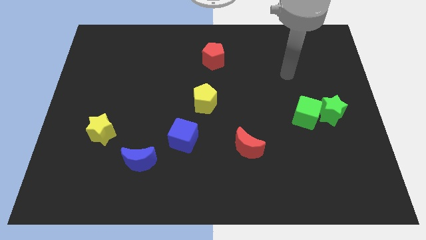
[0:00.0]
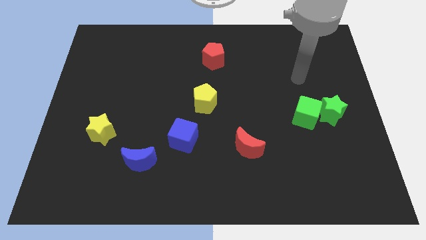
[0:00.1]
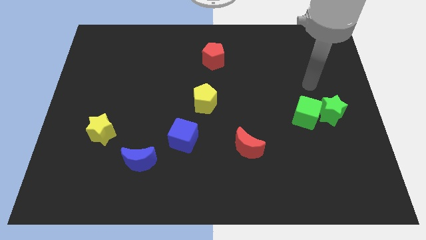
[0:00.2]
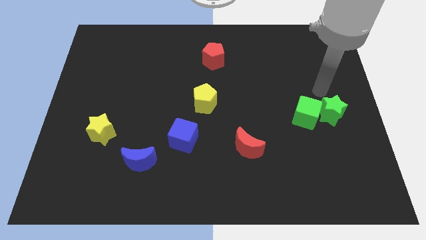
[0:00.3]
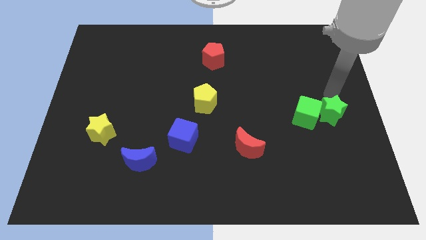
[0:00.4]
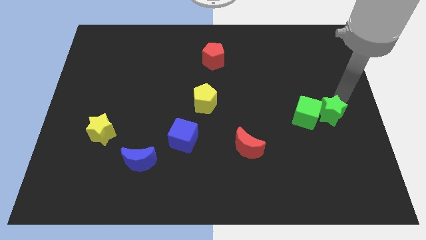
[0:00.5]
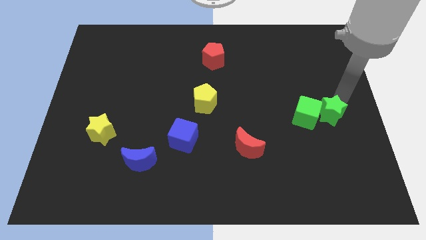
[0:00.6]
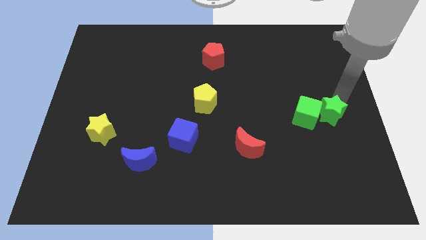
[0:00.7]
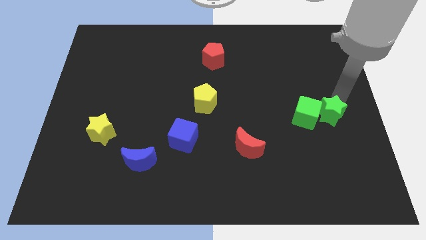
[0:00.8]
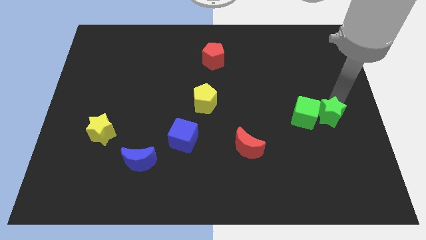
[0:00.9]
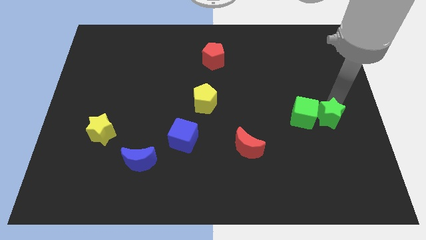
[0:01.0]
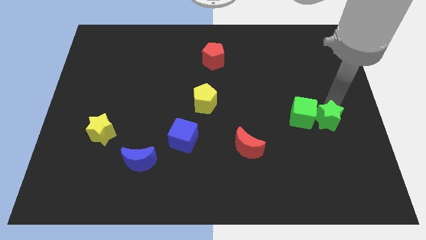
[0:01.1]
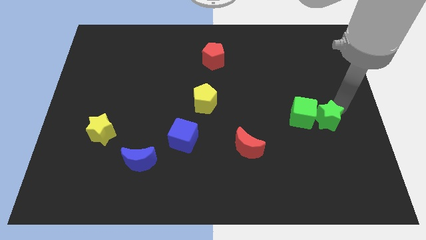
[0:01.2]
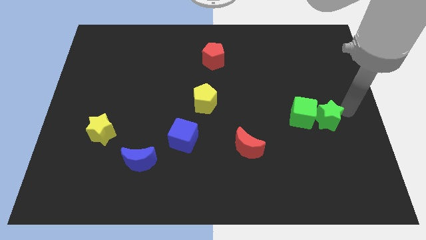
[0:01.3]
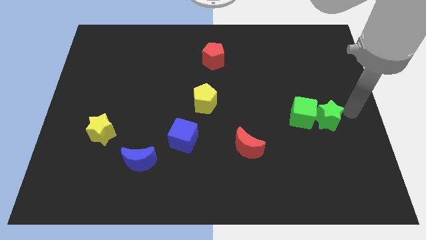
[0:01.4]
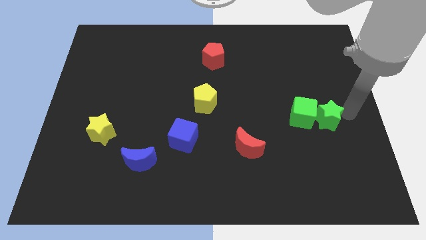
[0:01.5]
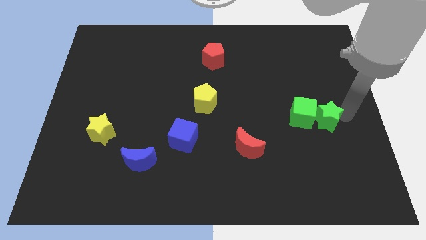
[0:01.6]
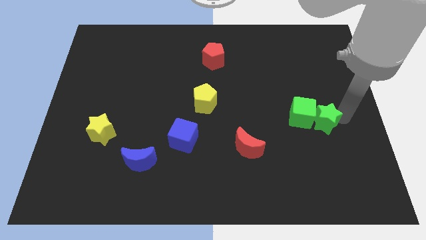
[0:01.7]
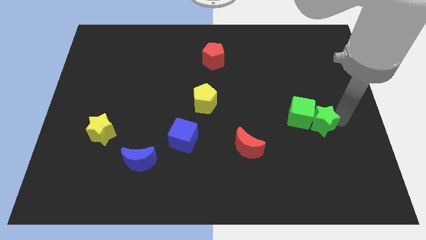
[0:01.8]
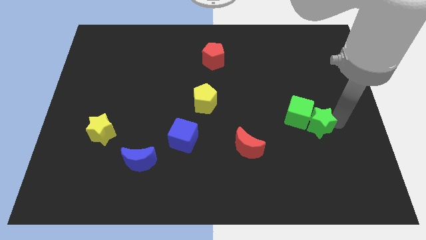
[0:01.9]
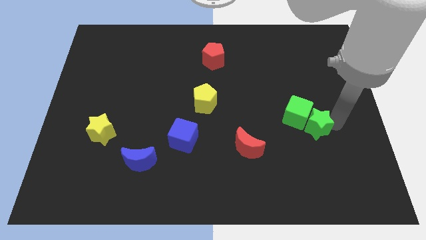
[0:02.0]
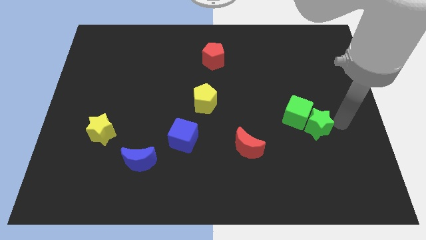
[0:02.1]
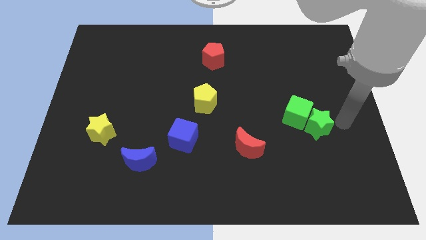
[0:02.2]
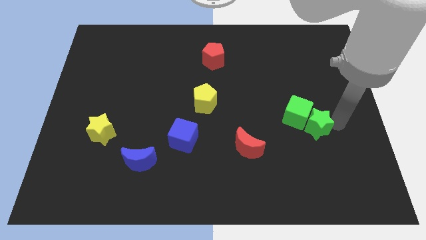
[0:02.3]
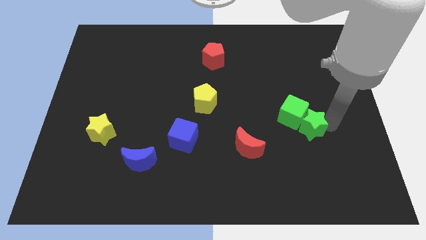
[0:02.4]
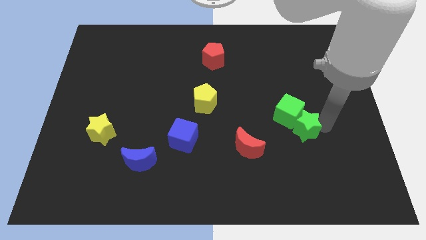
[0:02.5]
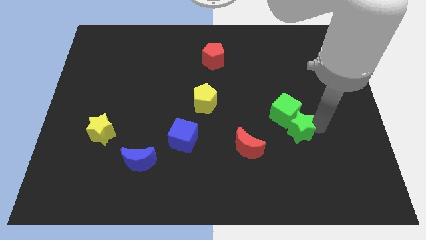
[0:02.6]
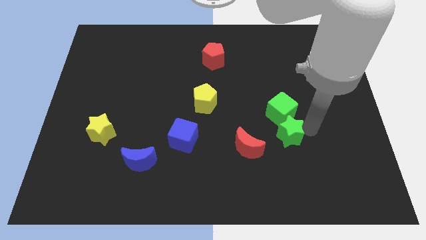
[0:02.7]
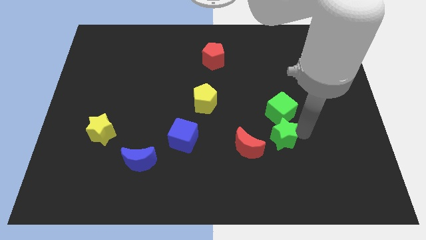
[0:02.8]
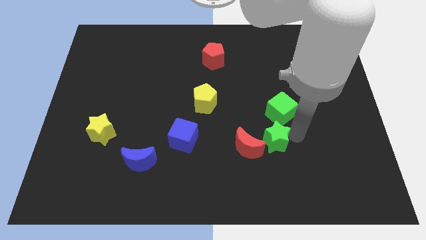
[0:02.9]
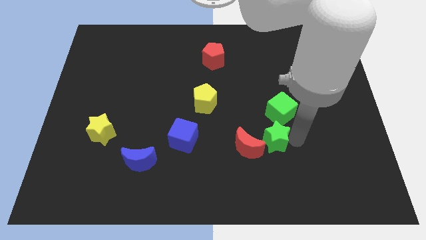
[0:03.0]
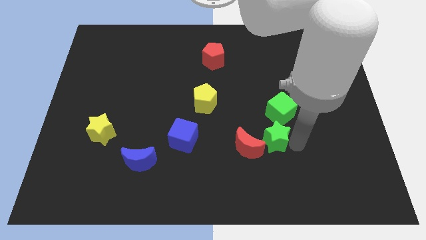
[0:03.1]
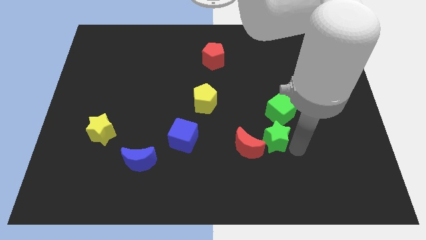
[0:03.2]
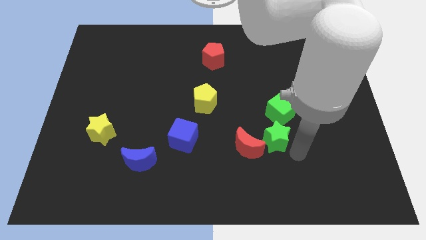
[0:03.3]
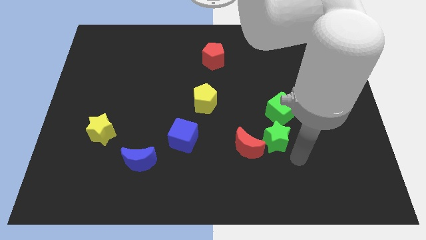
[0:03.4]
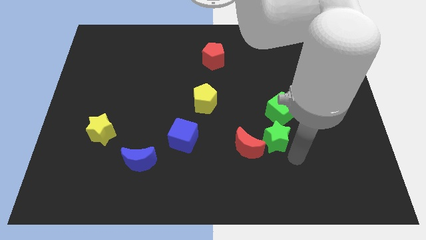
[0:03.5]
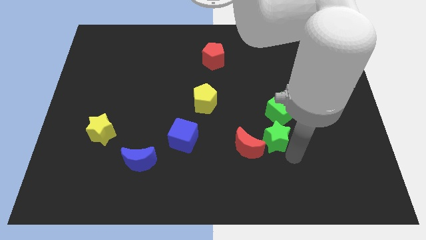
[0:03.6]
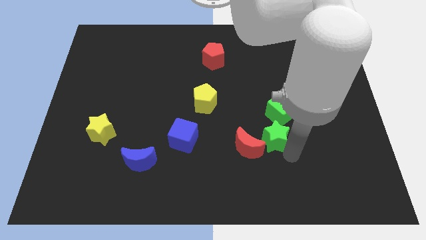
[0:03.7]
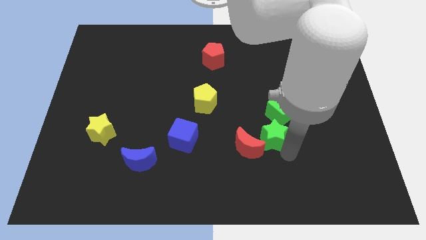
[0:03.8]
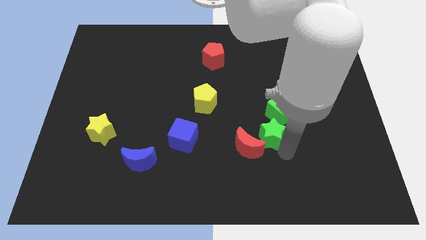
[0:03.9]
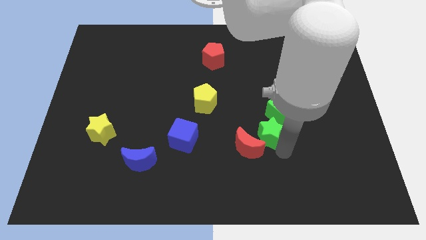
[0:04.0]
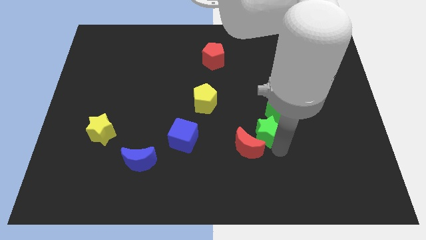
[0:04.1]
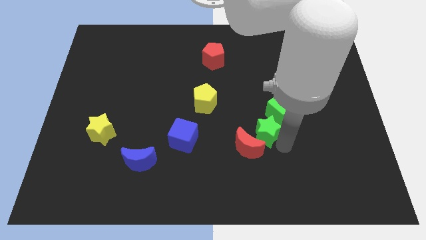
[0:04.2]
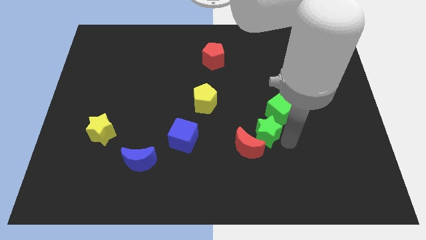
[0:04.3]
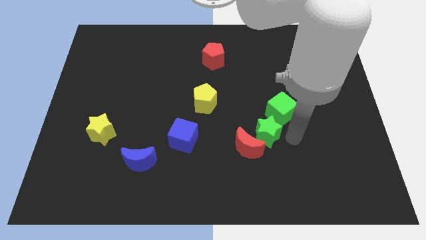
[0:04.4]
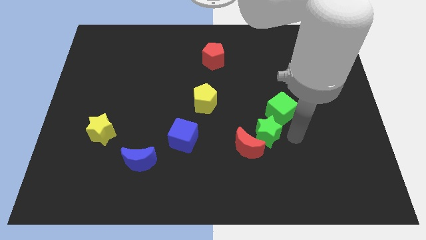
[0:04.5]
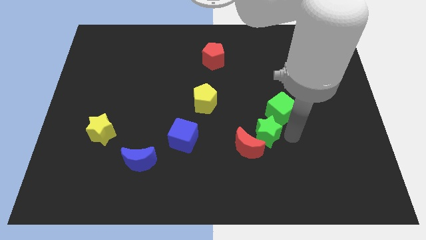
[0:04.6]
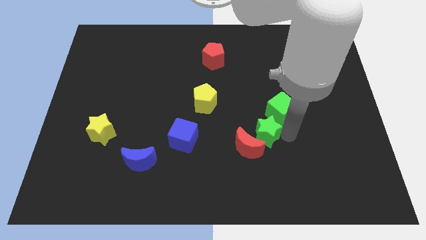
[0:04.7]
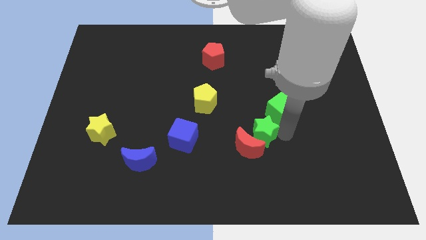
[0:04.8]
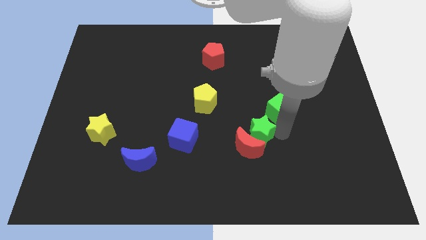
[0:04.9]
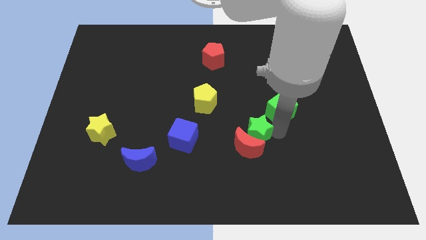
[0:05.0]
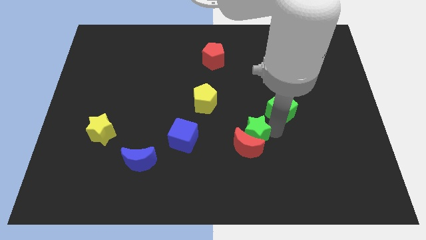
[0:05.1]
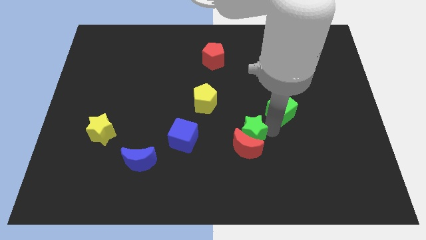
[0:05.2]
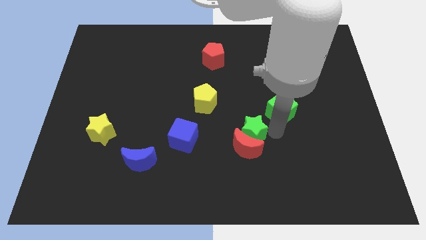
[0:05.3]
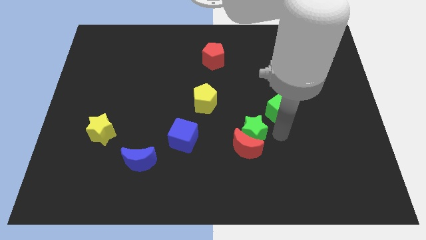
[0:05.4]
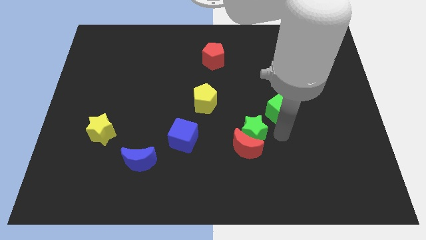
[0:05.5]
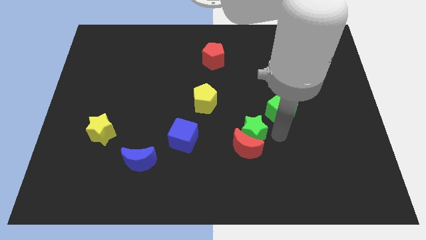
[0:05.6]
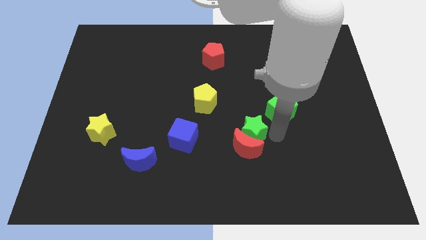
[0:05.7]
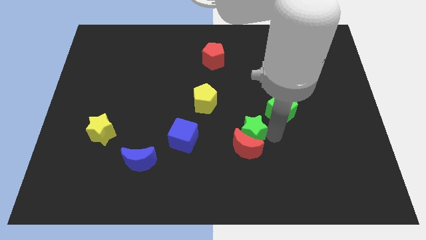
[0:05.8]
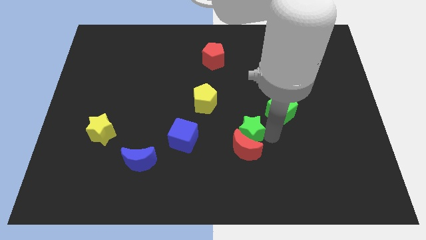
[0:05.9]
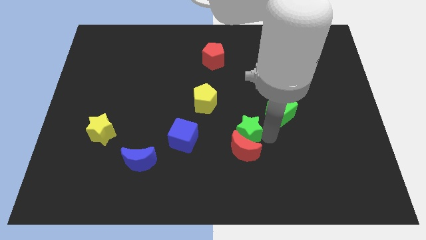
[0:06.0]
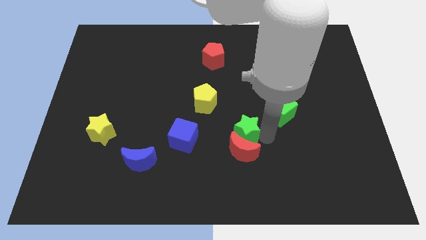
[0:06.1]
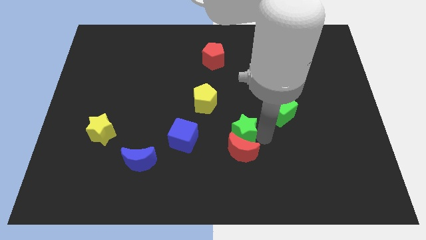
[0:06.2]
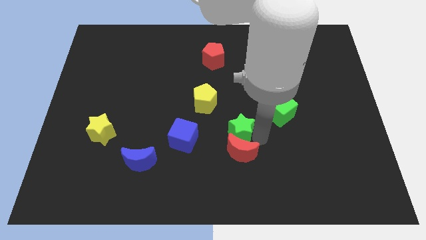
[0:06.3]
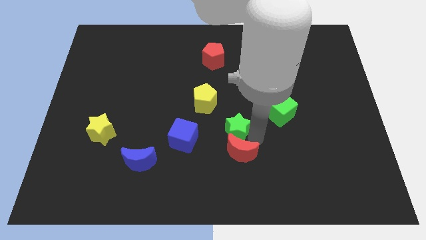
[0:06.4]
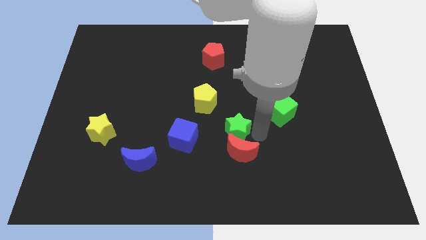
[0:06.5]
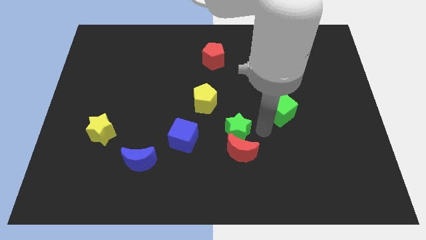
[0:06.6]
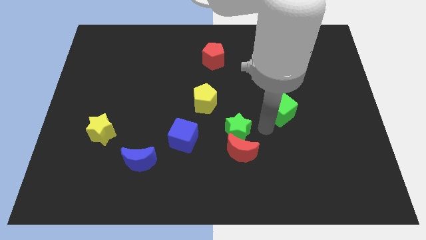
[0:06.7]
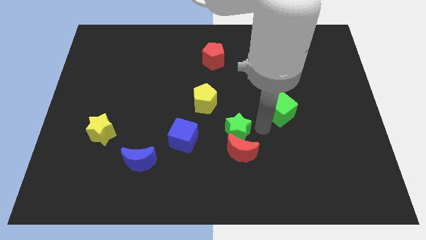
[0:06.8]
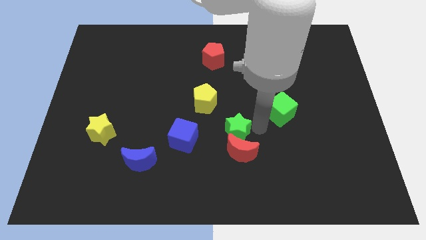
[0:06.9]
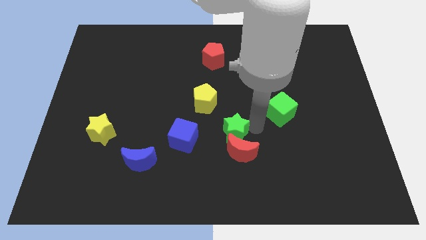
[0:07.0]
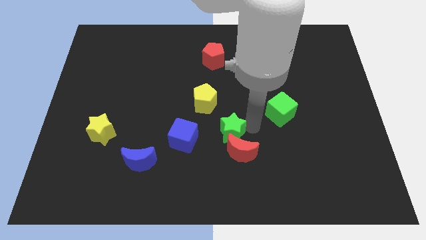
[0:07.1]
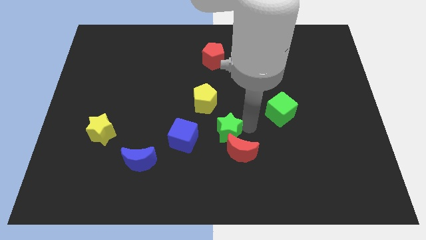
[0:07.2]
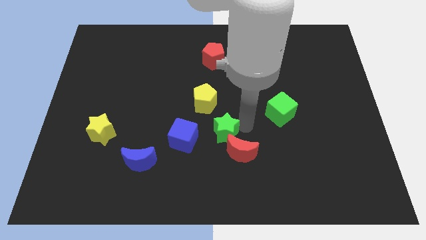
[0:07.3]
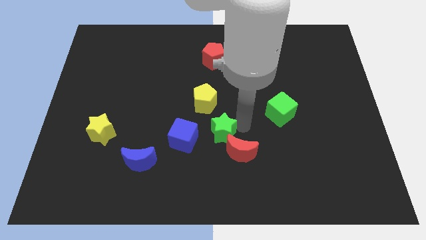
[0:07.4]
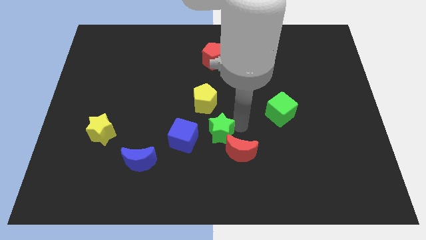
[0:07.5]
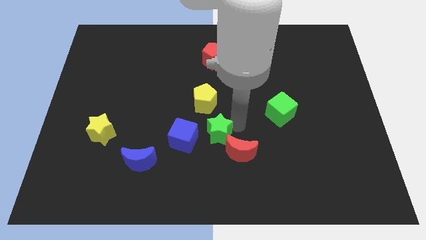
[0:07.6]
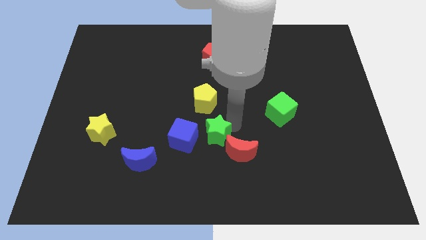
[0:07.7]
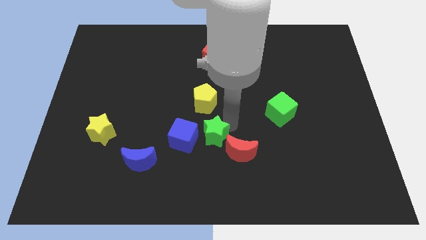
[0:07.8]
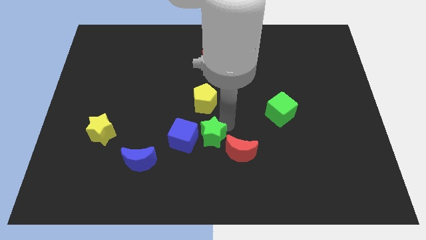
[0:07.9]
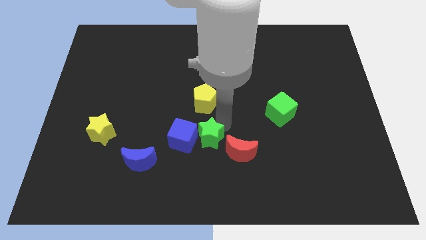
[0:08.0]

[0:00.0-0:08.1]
push the green star close to the blue cube
